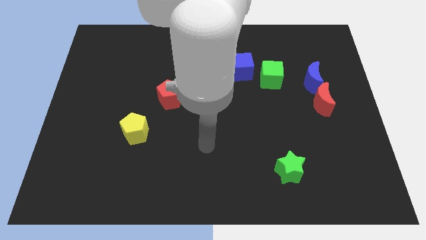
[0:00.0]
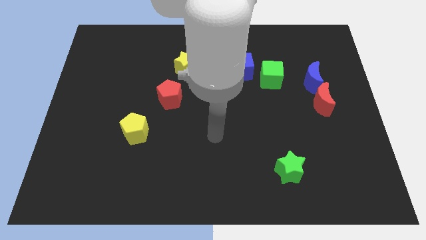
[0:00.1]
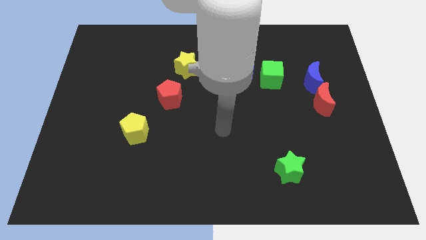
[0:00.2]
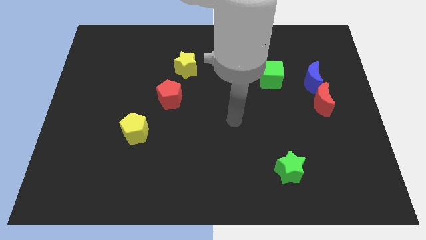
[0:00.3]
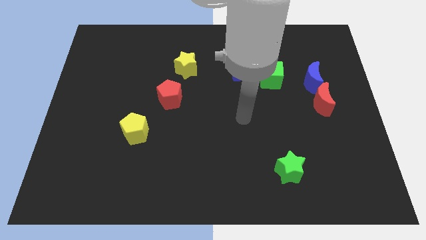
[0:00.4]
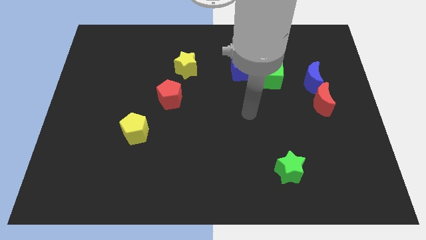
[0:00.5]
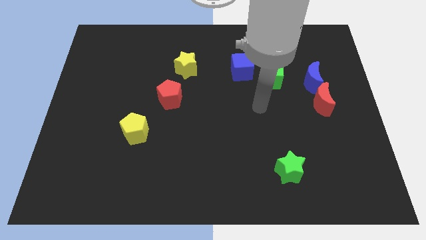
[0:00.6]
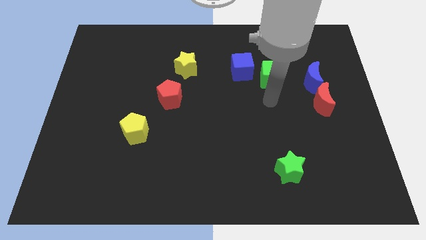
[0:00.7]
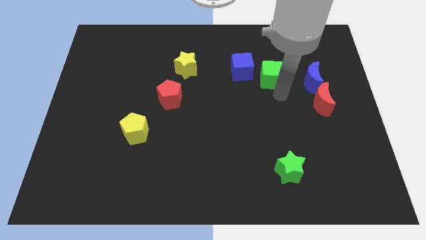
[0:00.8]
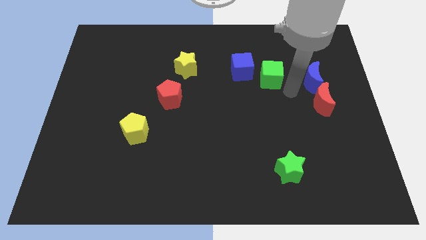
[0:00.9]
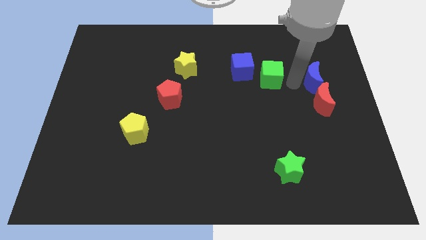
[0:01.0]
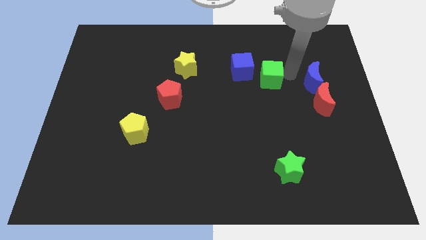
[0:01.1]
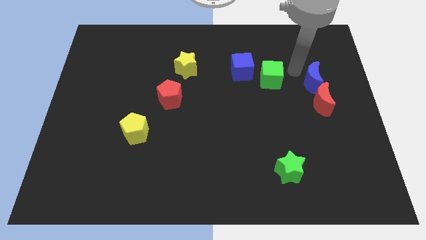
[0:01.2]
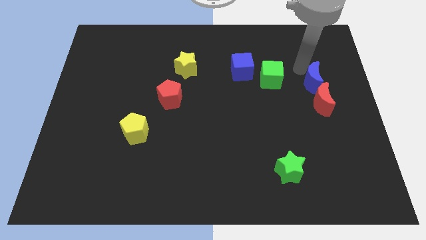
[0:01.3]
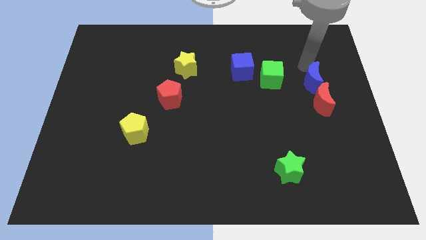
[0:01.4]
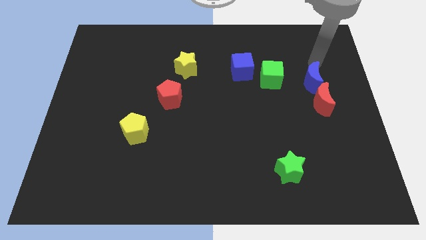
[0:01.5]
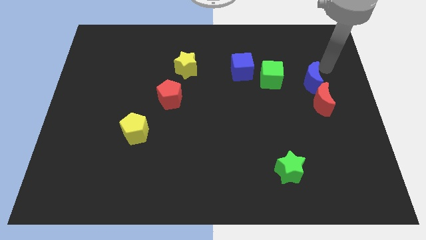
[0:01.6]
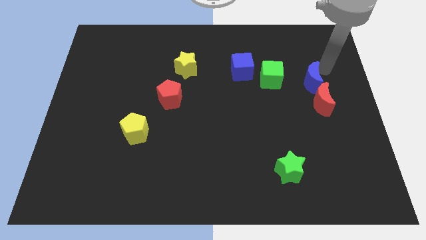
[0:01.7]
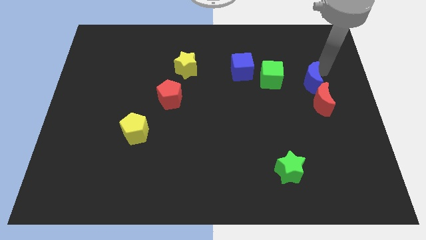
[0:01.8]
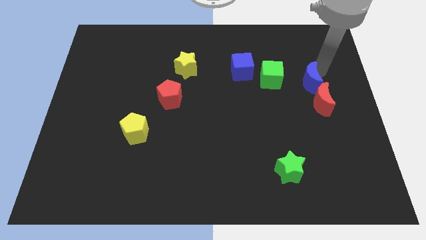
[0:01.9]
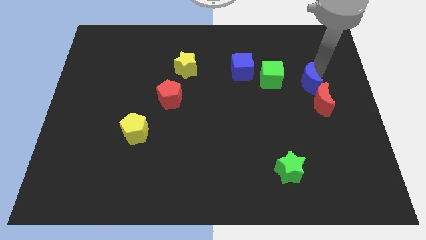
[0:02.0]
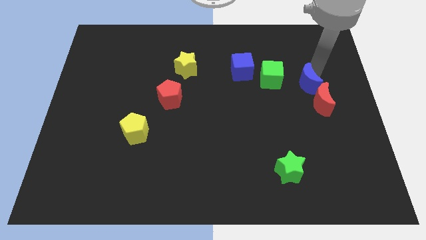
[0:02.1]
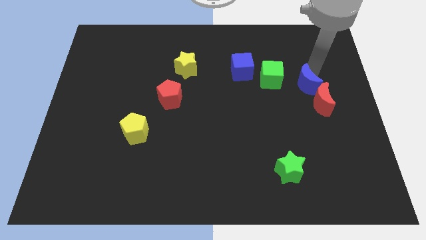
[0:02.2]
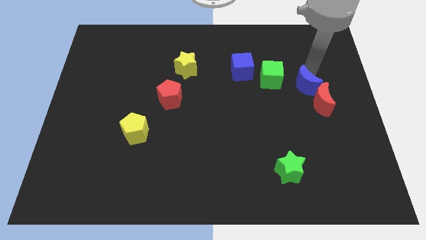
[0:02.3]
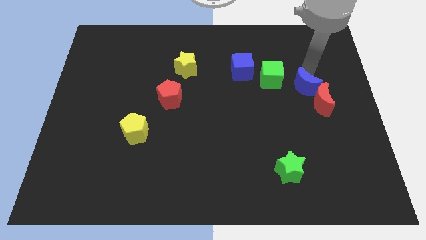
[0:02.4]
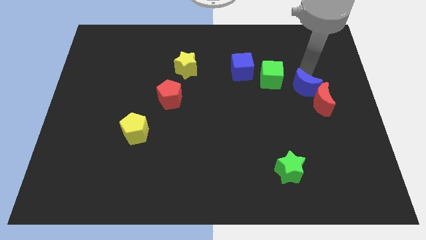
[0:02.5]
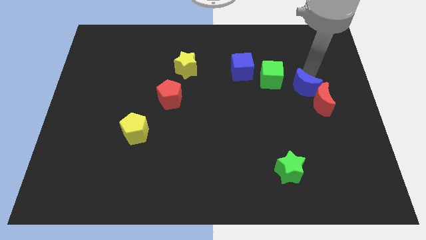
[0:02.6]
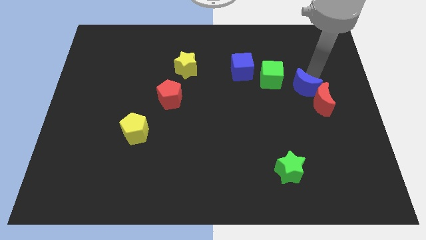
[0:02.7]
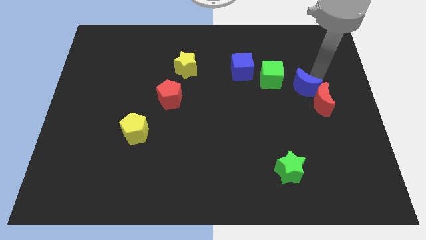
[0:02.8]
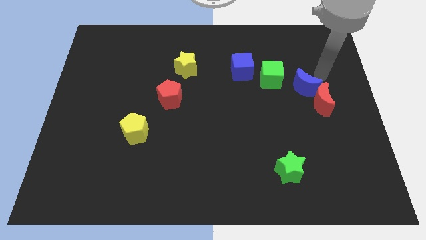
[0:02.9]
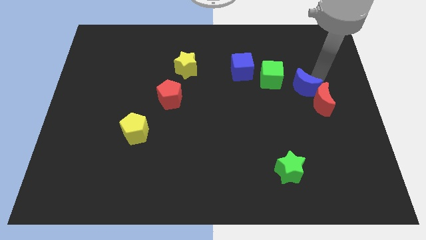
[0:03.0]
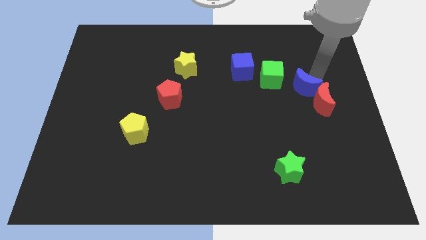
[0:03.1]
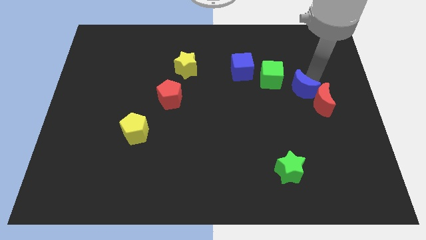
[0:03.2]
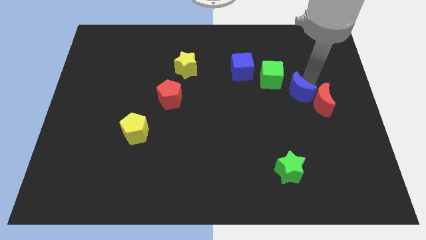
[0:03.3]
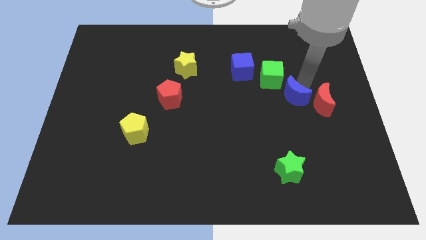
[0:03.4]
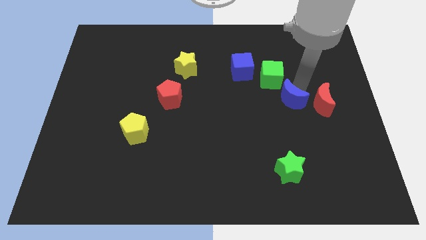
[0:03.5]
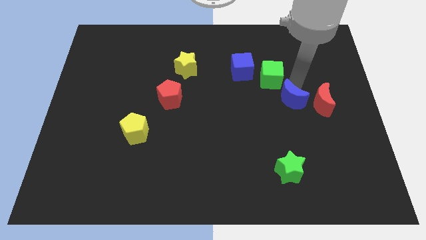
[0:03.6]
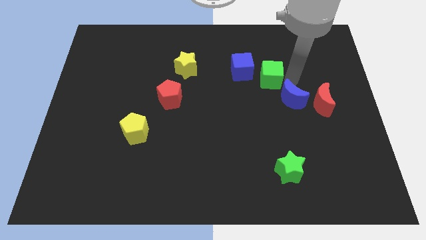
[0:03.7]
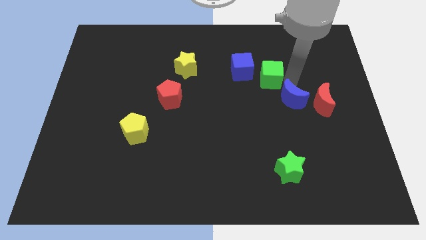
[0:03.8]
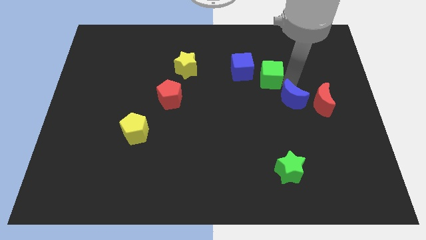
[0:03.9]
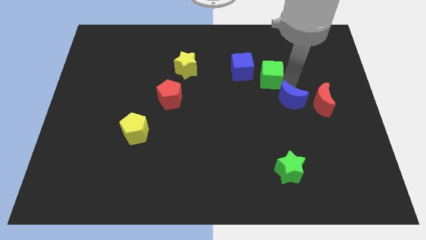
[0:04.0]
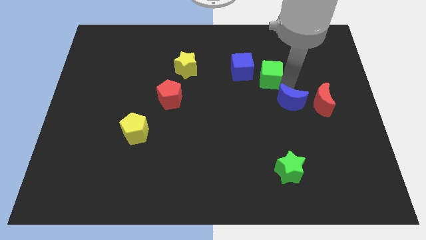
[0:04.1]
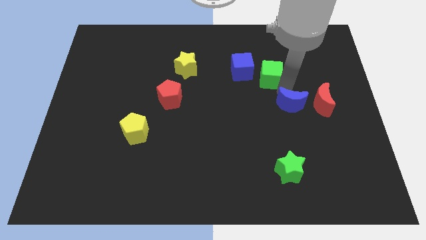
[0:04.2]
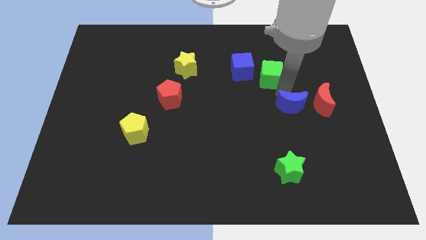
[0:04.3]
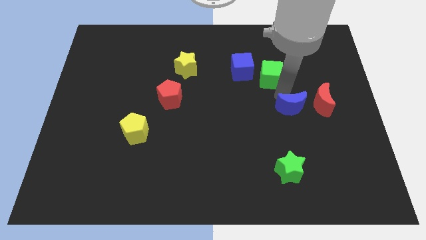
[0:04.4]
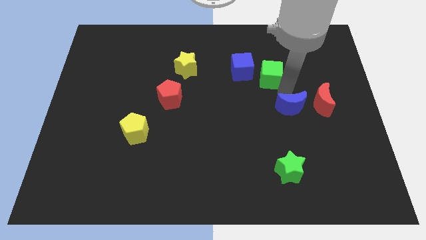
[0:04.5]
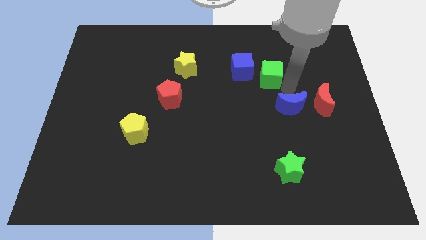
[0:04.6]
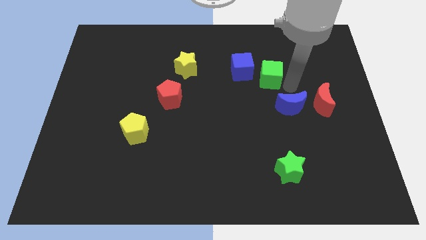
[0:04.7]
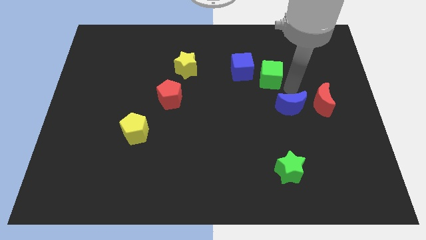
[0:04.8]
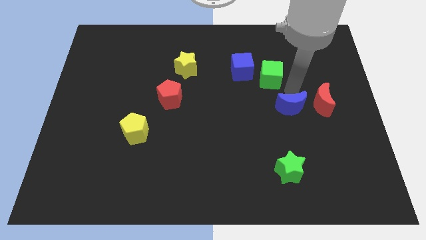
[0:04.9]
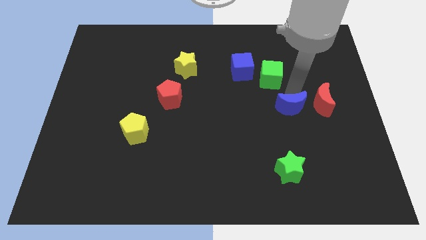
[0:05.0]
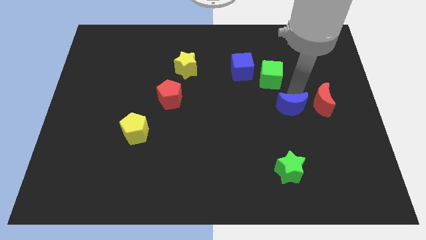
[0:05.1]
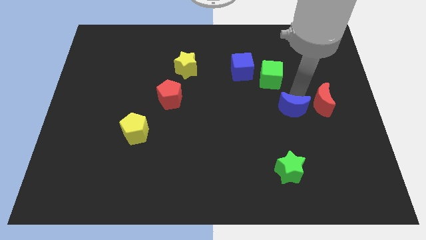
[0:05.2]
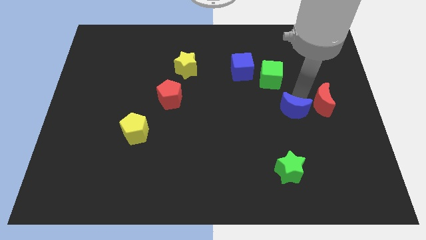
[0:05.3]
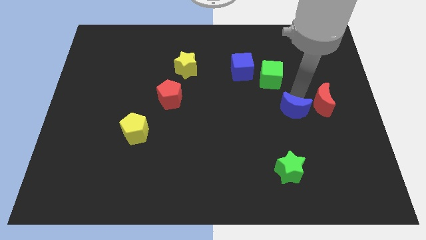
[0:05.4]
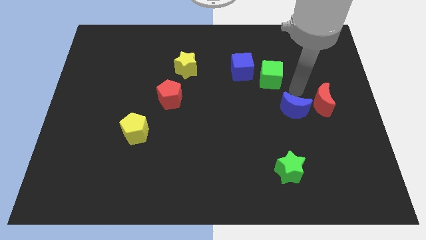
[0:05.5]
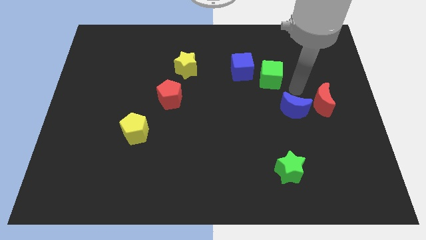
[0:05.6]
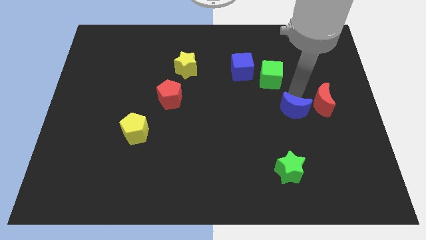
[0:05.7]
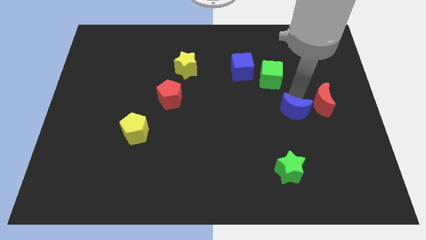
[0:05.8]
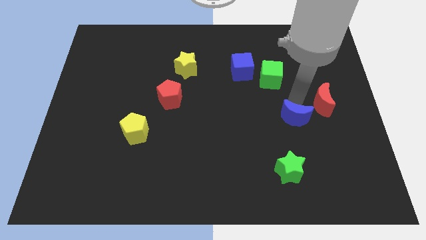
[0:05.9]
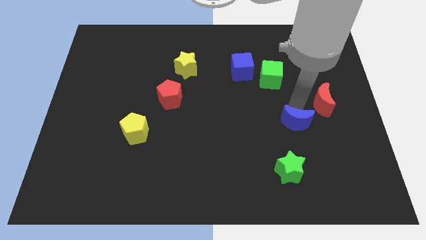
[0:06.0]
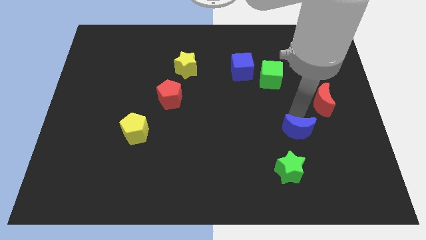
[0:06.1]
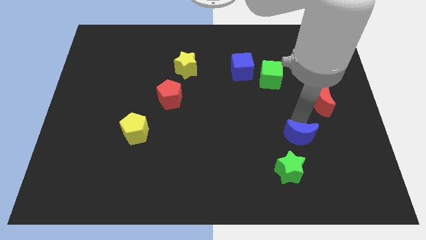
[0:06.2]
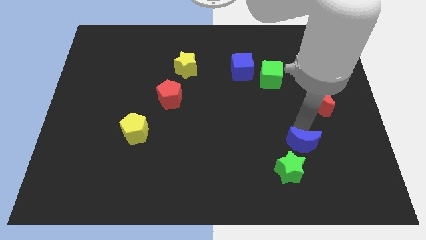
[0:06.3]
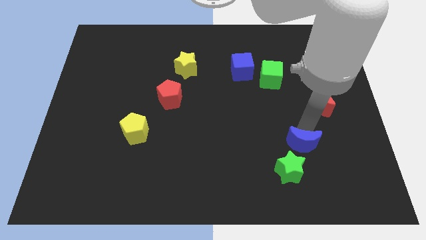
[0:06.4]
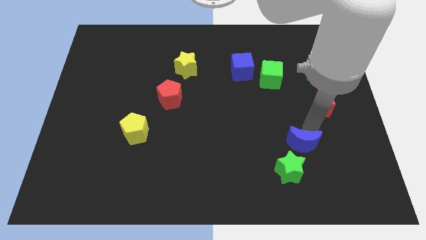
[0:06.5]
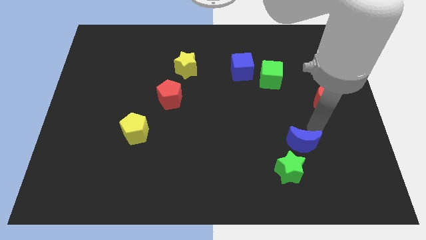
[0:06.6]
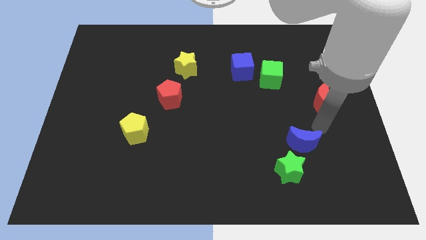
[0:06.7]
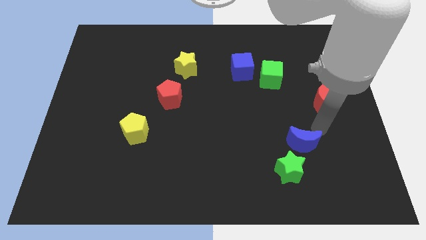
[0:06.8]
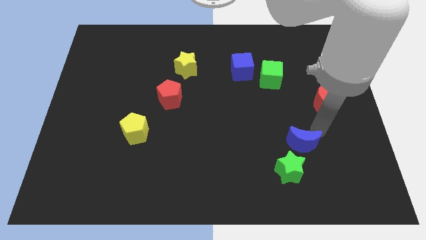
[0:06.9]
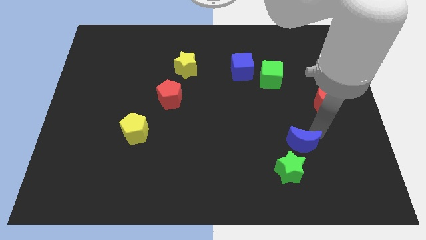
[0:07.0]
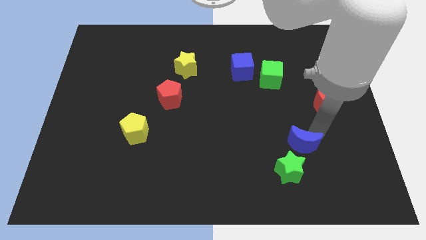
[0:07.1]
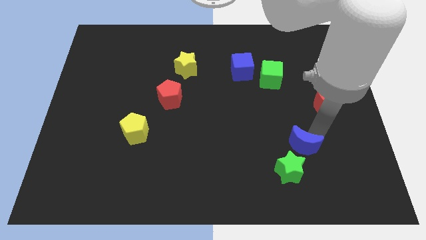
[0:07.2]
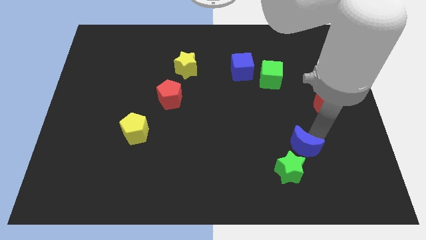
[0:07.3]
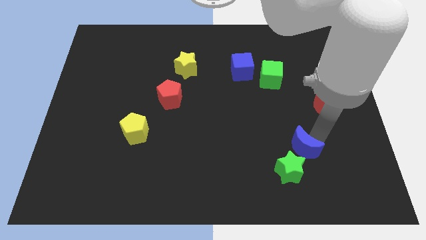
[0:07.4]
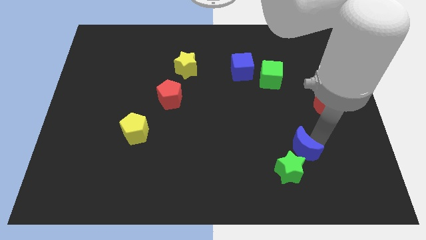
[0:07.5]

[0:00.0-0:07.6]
push the blue moon next to the green star
